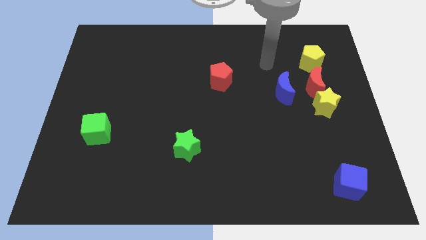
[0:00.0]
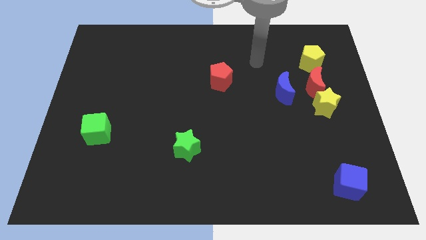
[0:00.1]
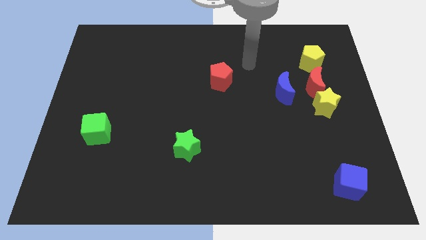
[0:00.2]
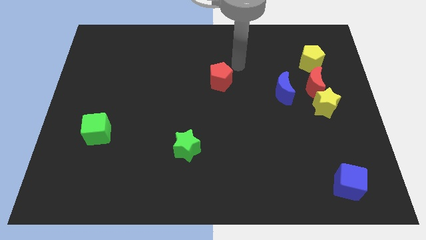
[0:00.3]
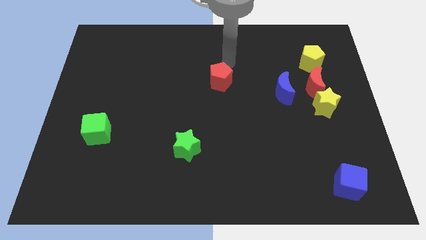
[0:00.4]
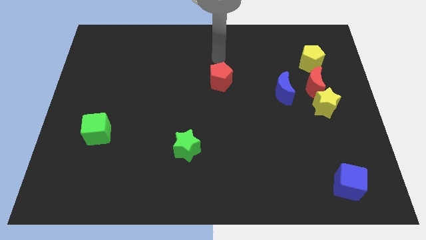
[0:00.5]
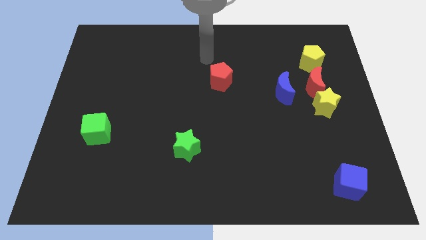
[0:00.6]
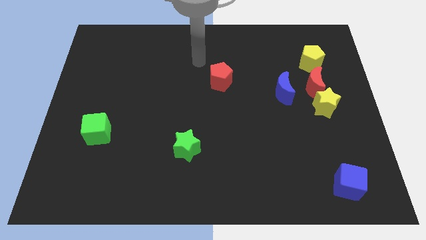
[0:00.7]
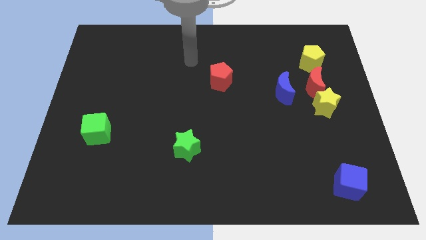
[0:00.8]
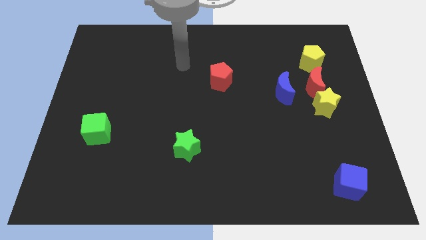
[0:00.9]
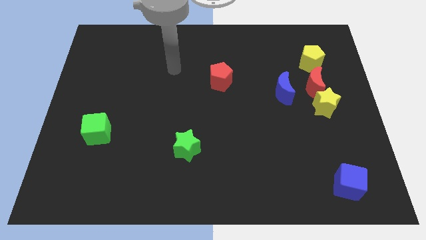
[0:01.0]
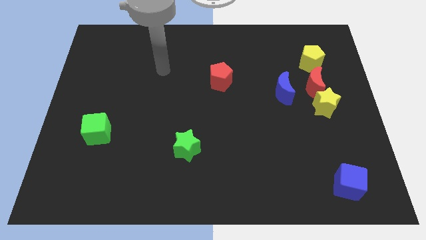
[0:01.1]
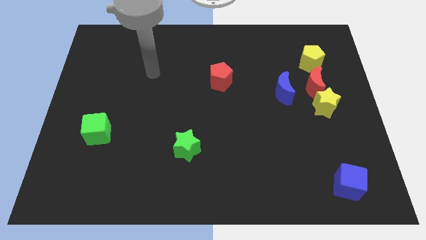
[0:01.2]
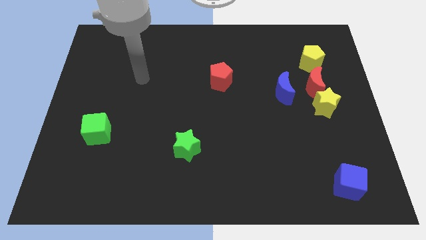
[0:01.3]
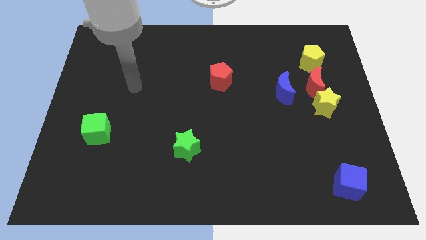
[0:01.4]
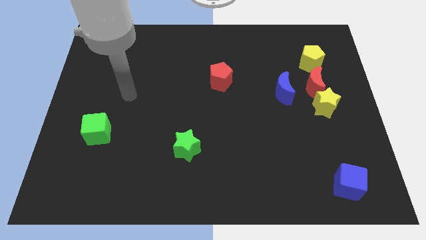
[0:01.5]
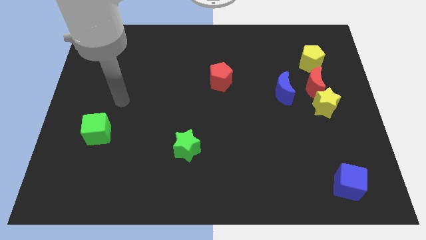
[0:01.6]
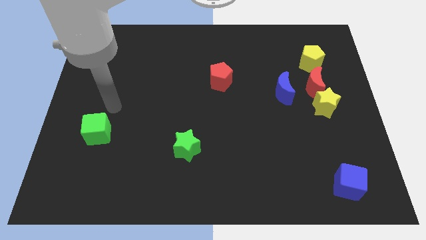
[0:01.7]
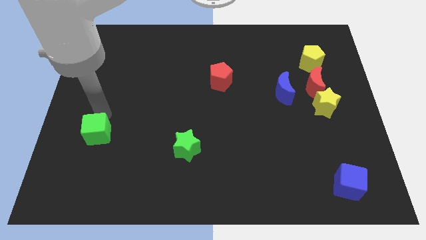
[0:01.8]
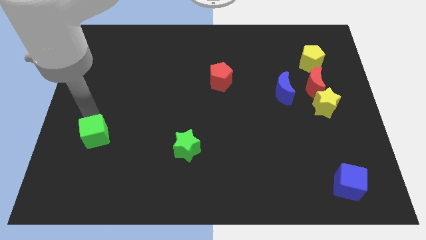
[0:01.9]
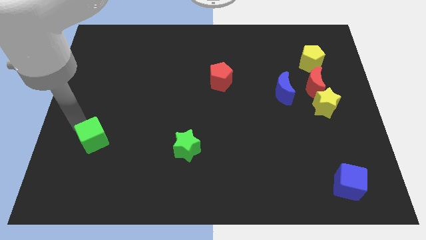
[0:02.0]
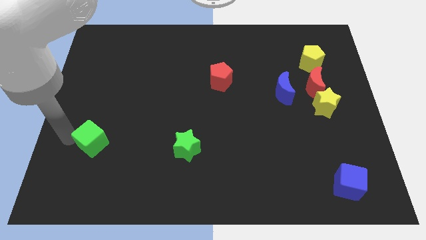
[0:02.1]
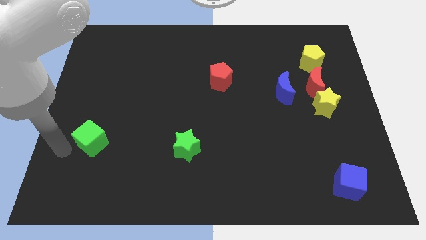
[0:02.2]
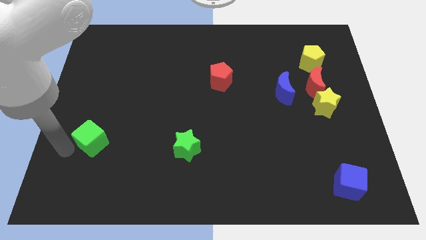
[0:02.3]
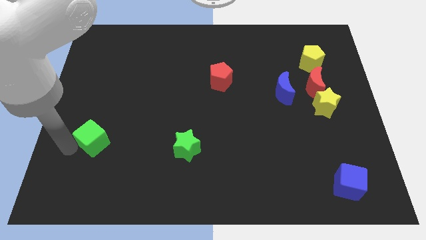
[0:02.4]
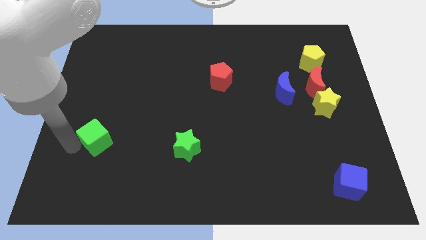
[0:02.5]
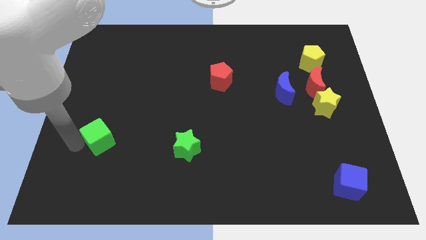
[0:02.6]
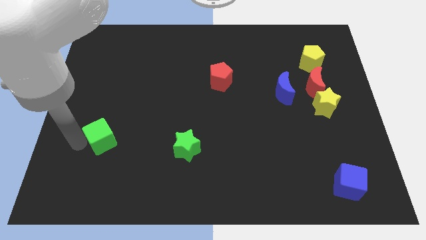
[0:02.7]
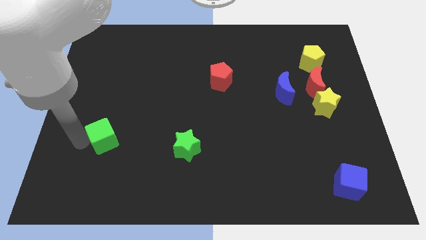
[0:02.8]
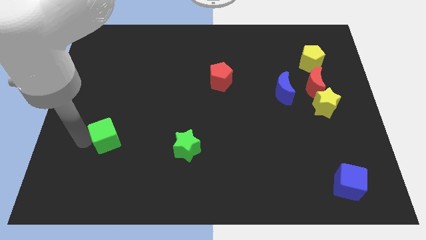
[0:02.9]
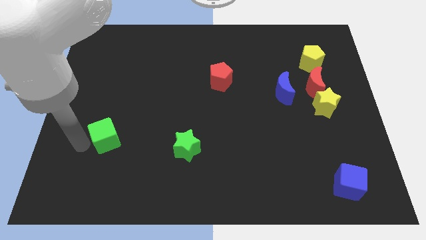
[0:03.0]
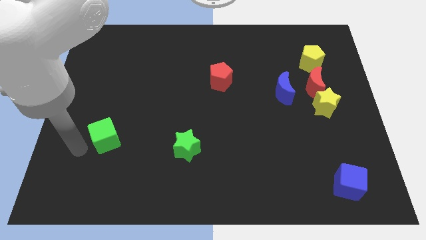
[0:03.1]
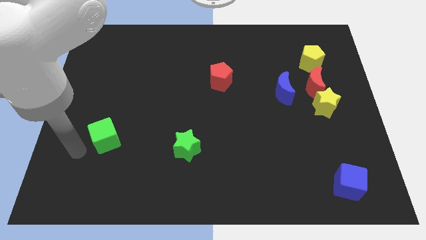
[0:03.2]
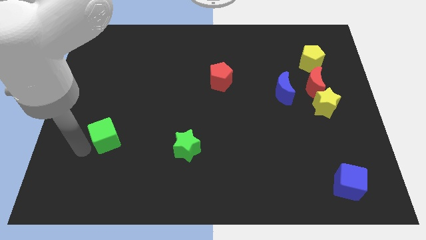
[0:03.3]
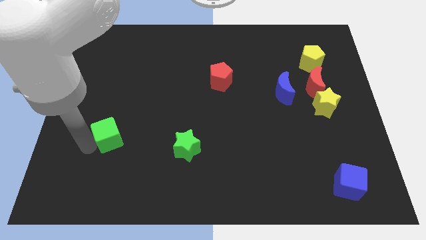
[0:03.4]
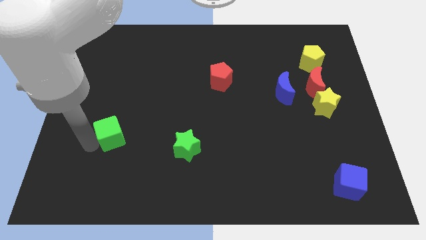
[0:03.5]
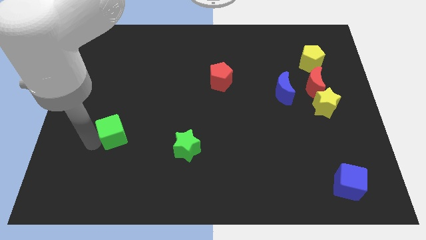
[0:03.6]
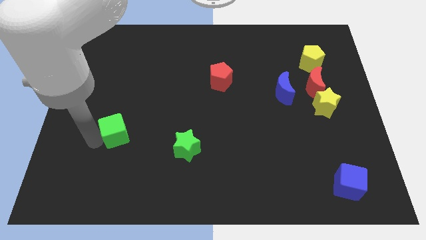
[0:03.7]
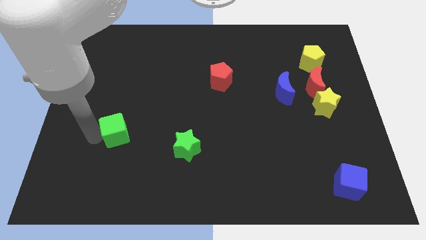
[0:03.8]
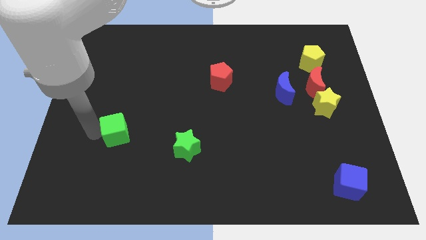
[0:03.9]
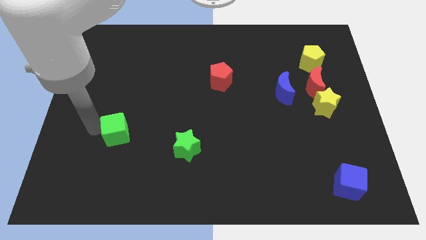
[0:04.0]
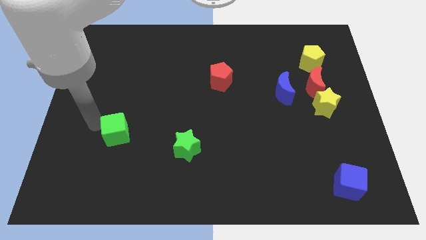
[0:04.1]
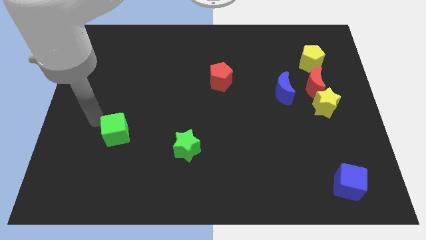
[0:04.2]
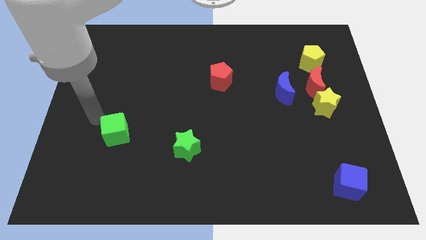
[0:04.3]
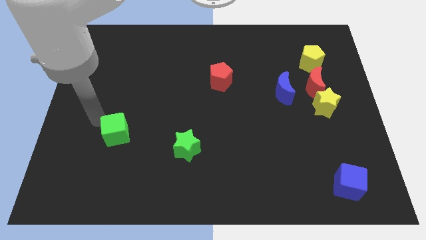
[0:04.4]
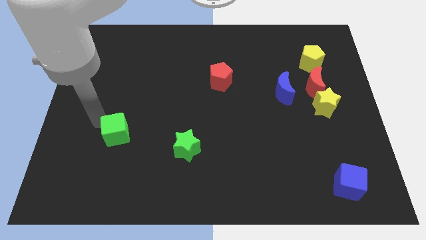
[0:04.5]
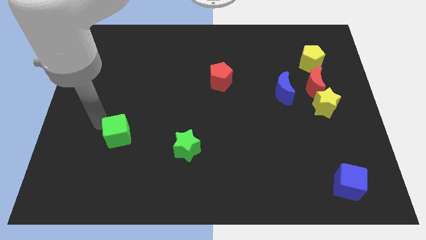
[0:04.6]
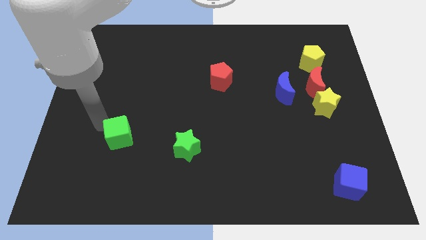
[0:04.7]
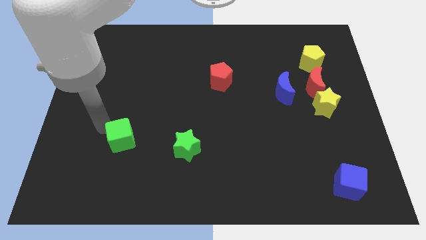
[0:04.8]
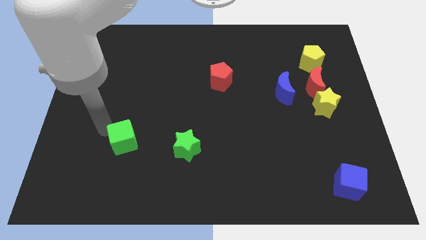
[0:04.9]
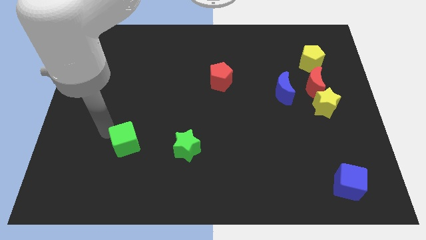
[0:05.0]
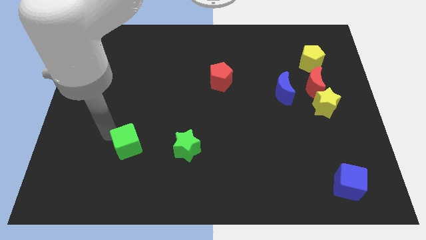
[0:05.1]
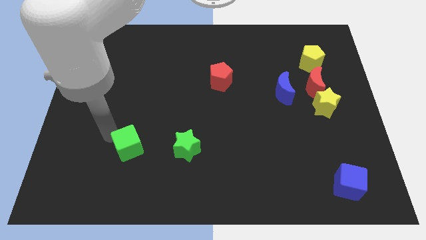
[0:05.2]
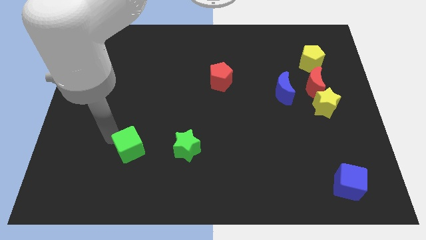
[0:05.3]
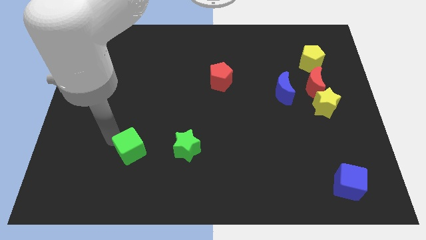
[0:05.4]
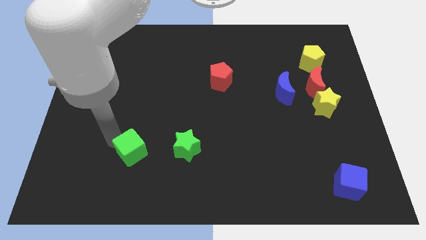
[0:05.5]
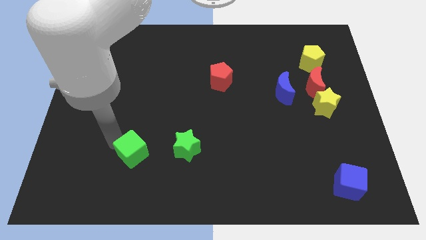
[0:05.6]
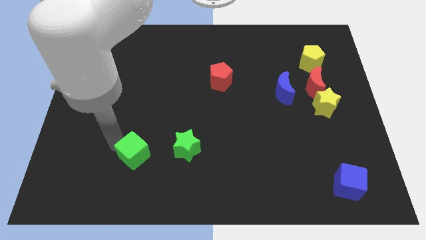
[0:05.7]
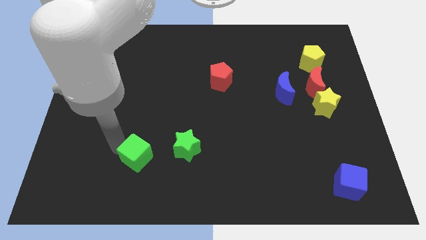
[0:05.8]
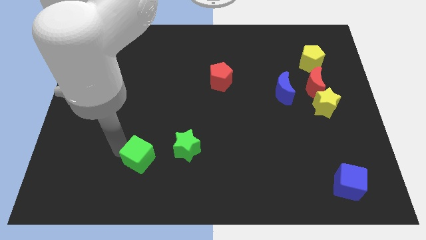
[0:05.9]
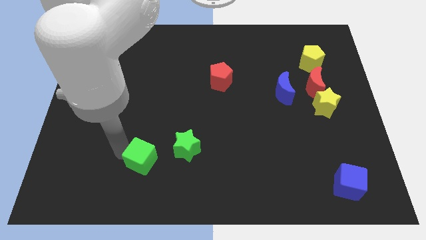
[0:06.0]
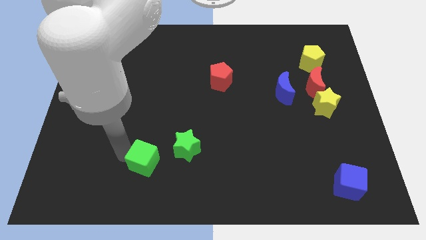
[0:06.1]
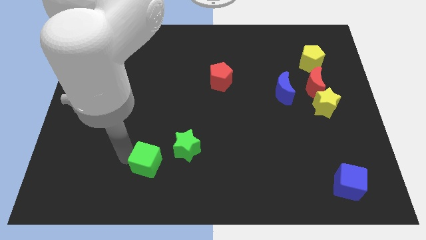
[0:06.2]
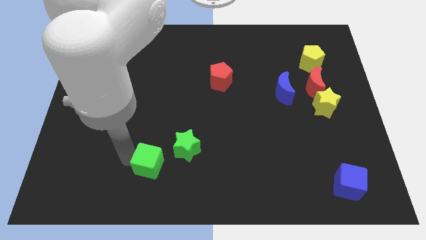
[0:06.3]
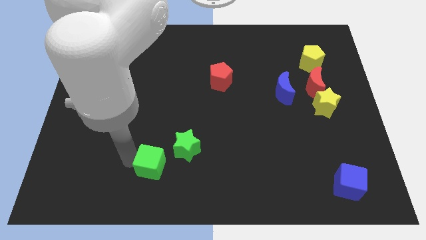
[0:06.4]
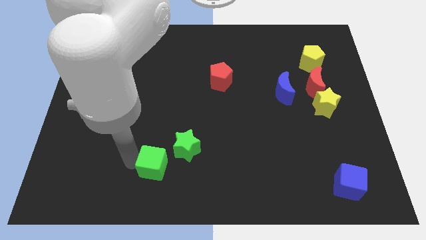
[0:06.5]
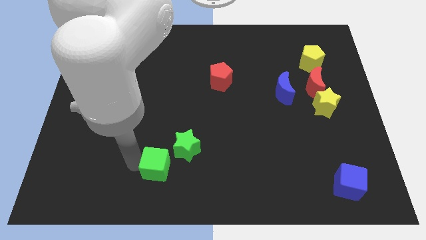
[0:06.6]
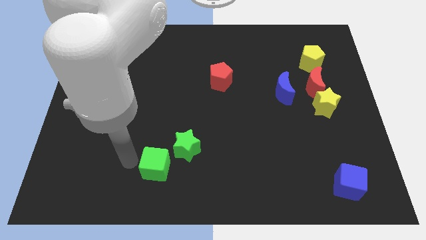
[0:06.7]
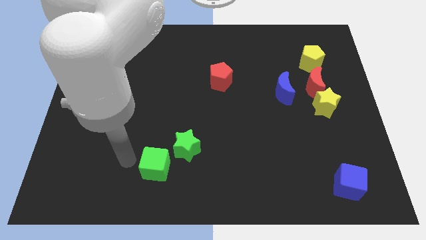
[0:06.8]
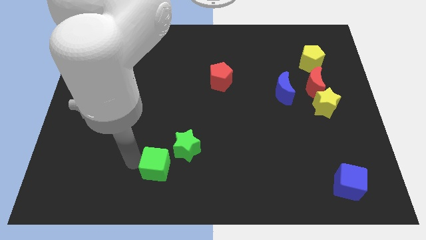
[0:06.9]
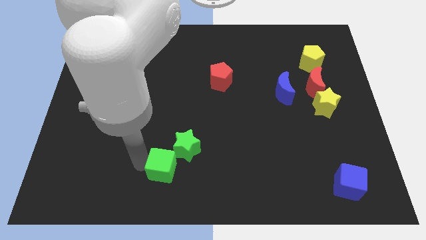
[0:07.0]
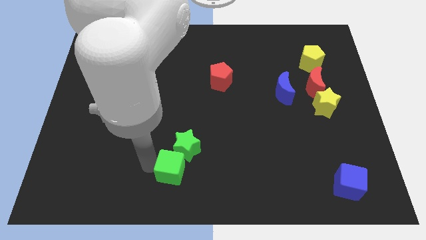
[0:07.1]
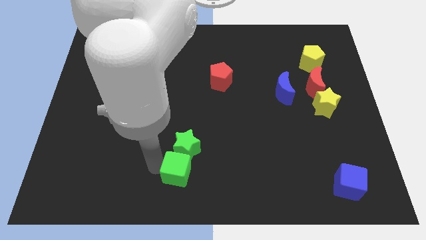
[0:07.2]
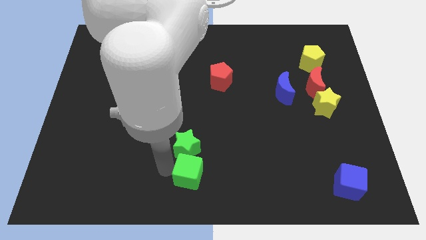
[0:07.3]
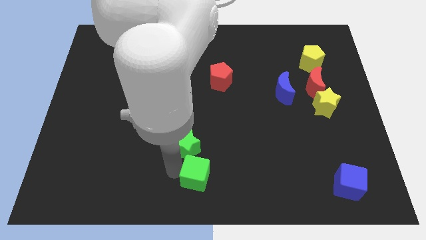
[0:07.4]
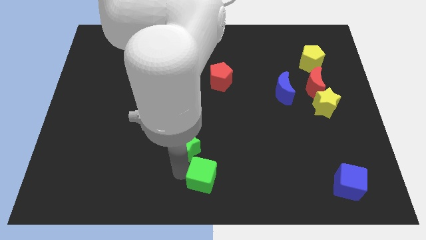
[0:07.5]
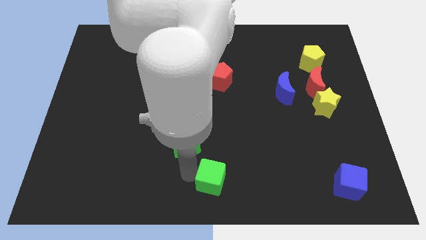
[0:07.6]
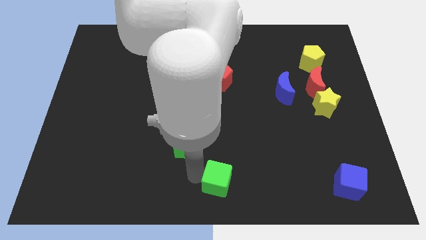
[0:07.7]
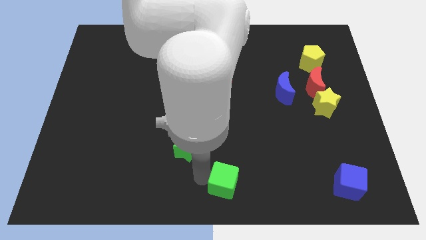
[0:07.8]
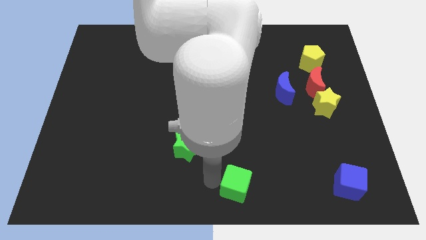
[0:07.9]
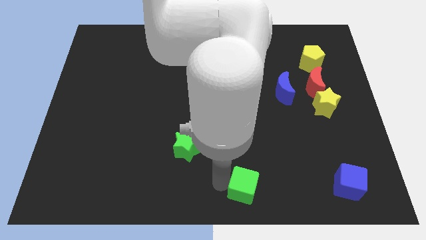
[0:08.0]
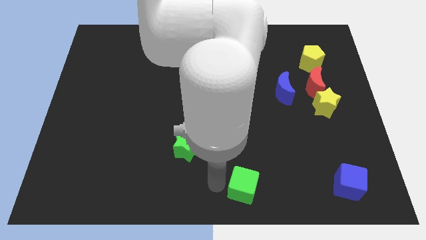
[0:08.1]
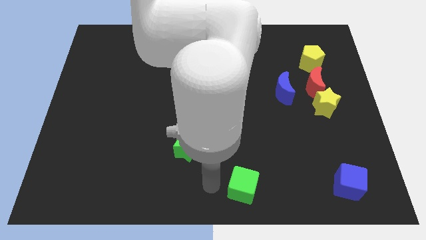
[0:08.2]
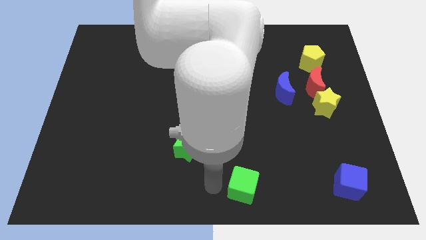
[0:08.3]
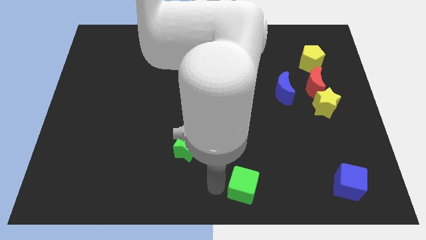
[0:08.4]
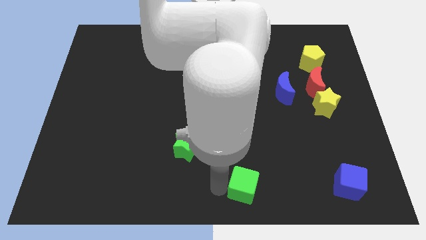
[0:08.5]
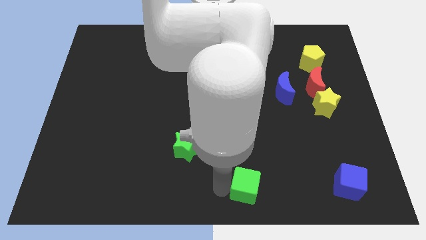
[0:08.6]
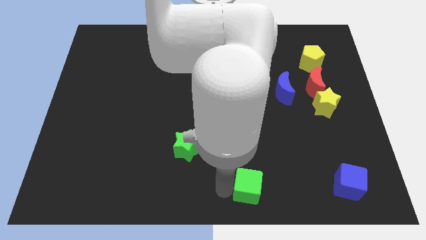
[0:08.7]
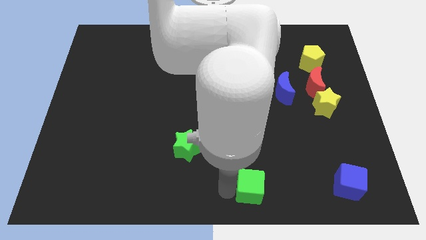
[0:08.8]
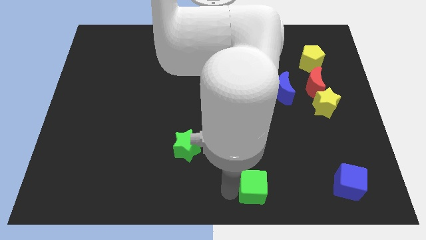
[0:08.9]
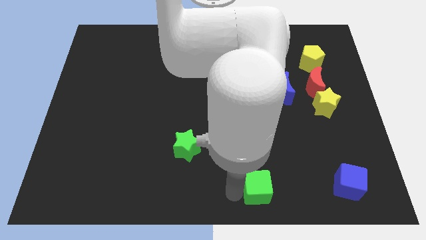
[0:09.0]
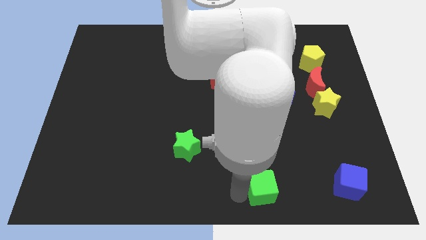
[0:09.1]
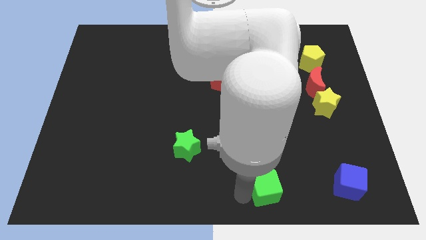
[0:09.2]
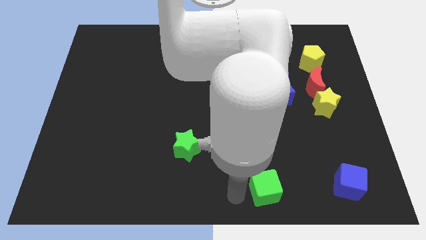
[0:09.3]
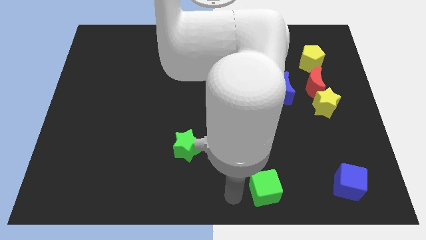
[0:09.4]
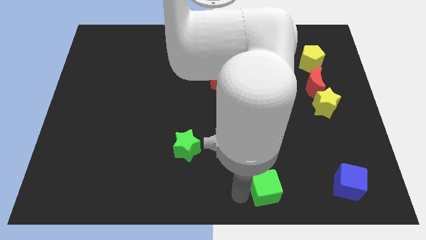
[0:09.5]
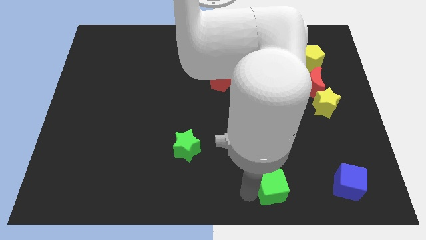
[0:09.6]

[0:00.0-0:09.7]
slide the green cube left of the blue cube
